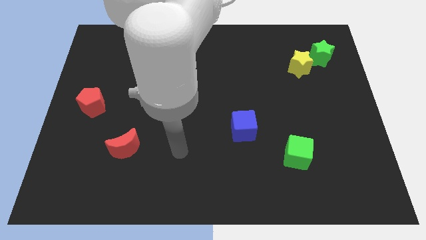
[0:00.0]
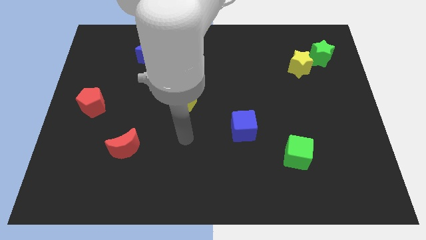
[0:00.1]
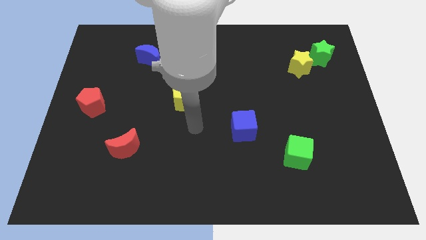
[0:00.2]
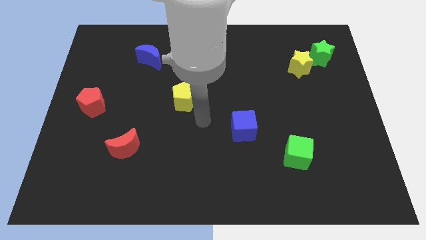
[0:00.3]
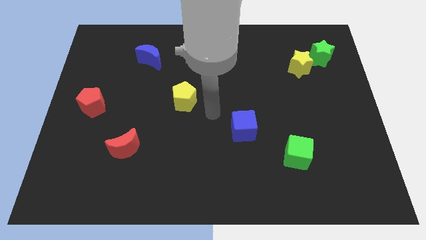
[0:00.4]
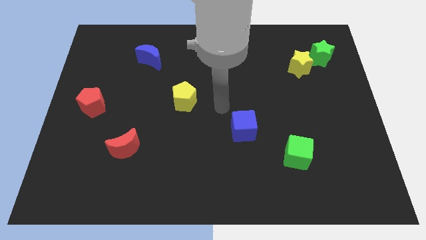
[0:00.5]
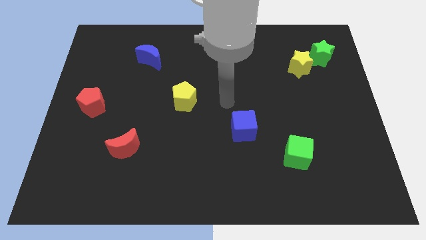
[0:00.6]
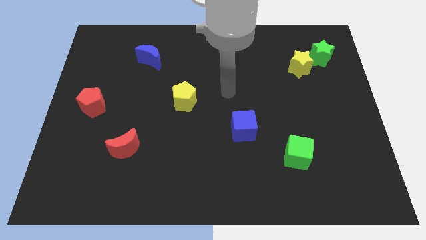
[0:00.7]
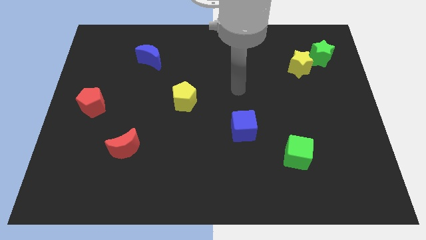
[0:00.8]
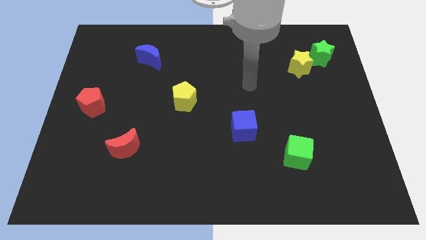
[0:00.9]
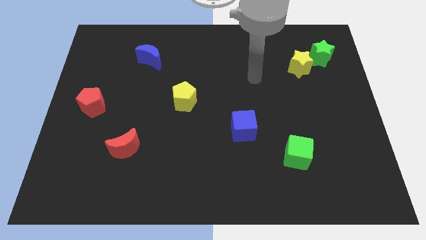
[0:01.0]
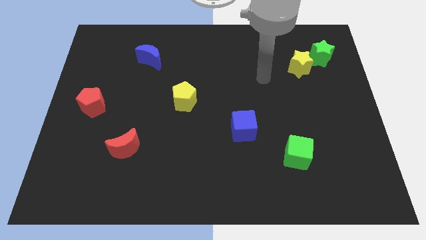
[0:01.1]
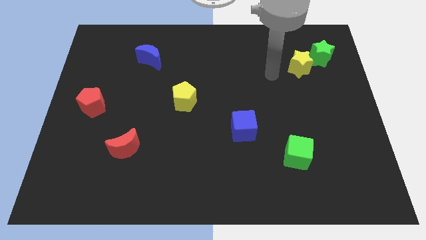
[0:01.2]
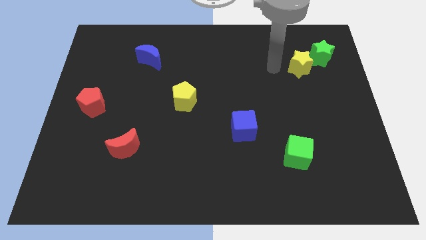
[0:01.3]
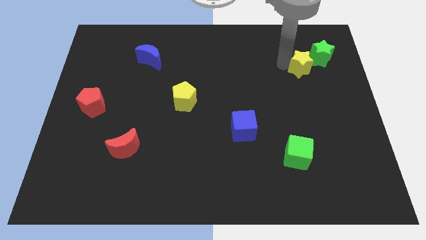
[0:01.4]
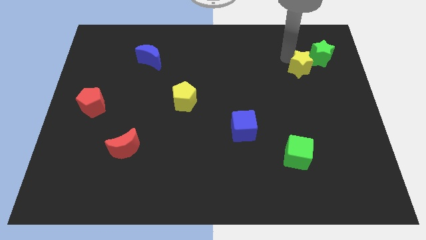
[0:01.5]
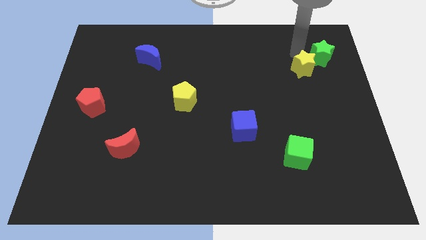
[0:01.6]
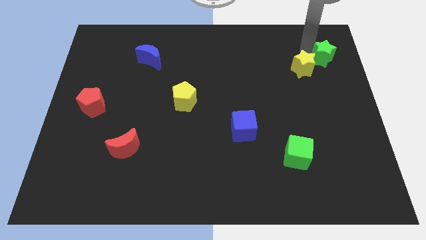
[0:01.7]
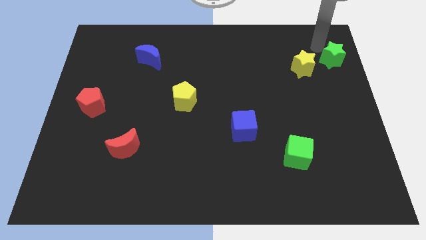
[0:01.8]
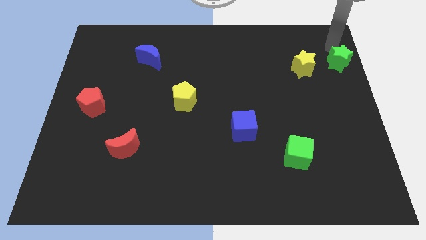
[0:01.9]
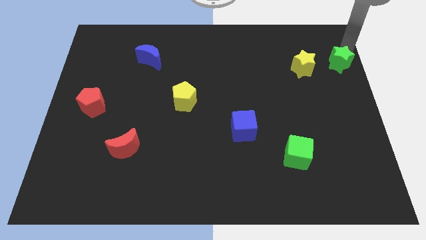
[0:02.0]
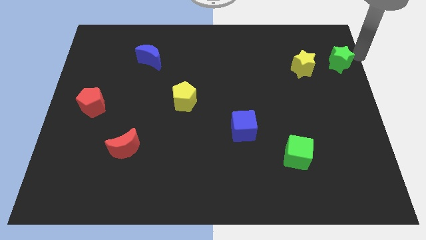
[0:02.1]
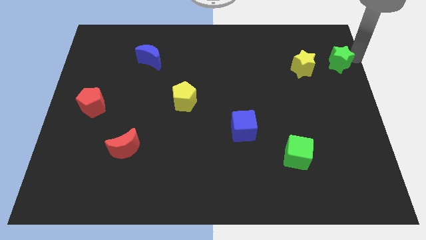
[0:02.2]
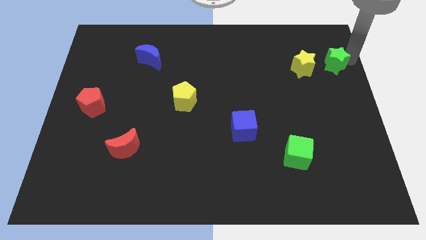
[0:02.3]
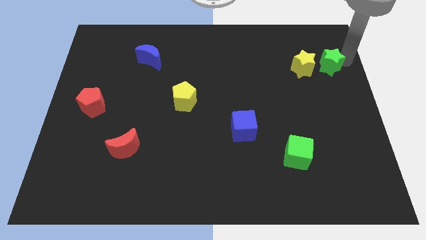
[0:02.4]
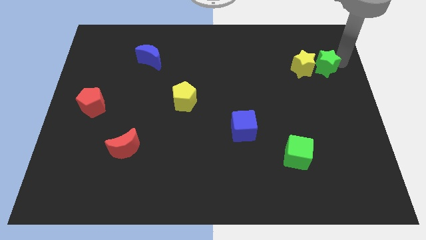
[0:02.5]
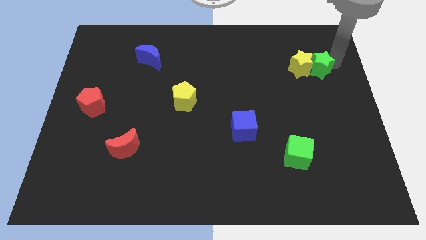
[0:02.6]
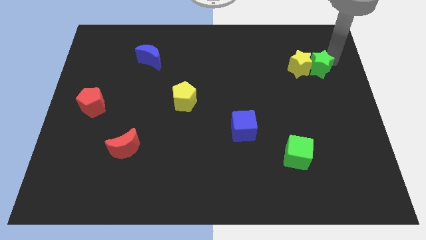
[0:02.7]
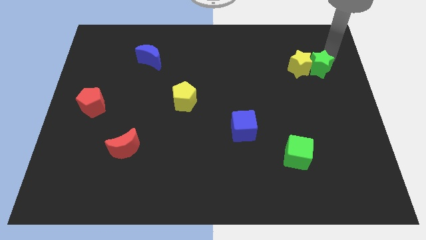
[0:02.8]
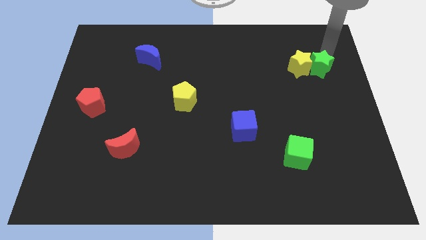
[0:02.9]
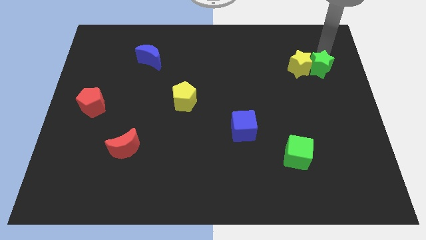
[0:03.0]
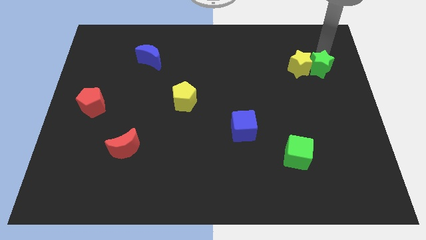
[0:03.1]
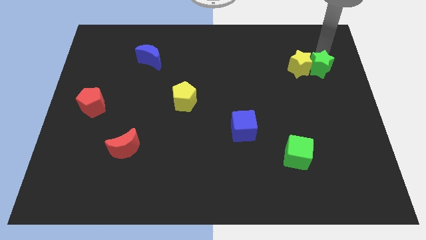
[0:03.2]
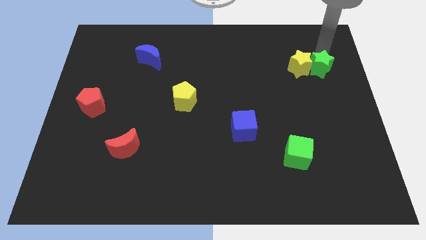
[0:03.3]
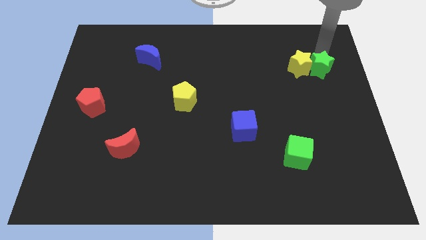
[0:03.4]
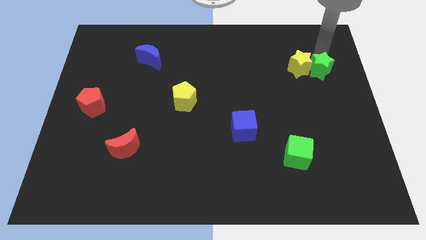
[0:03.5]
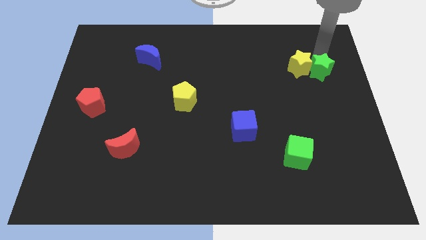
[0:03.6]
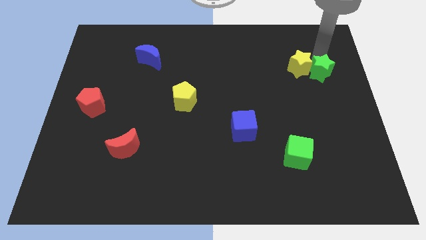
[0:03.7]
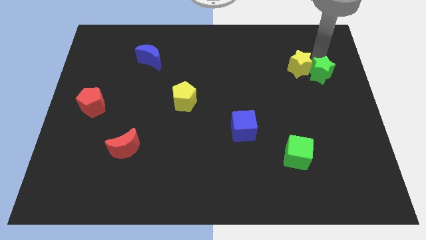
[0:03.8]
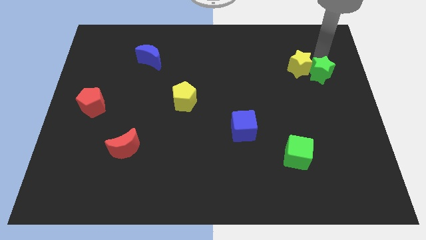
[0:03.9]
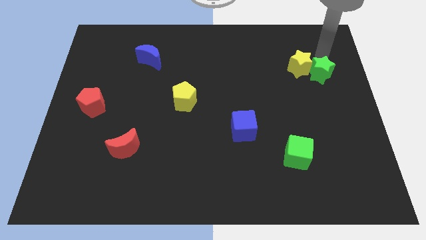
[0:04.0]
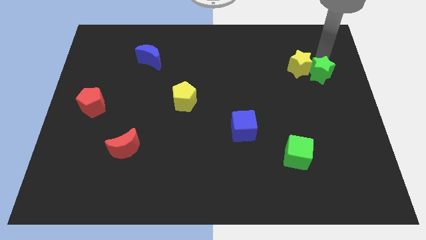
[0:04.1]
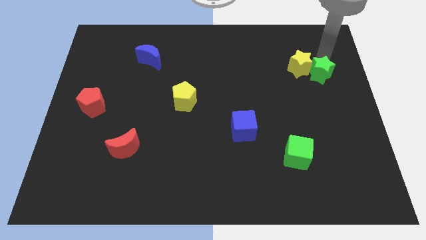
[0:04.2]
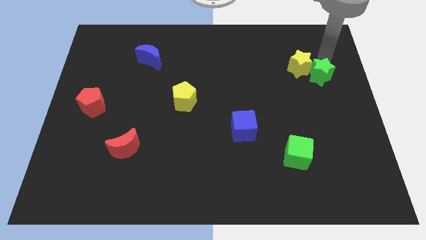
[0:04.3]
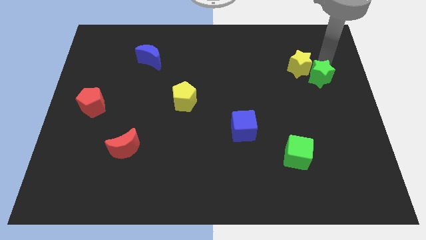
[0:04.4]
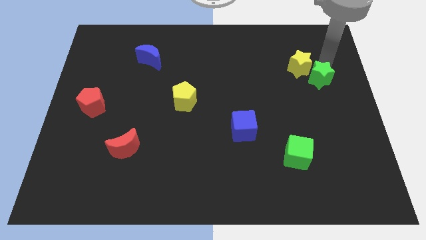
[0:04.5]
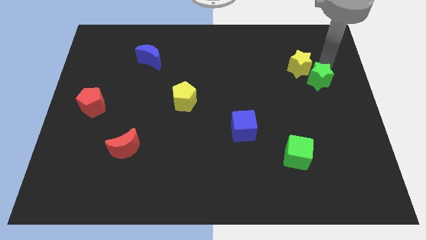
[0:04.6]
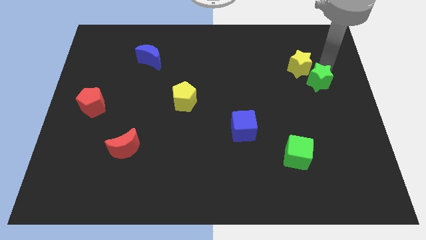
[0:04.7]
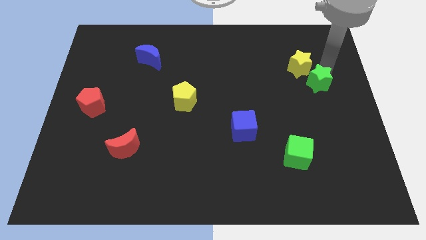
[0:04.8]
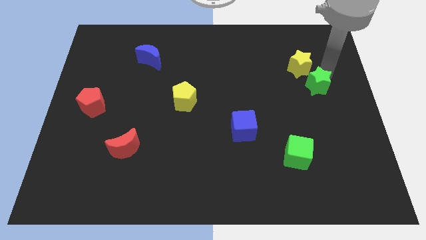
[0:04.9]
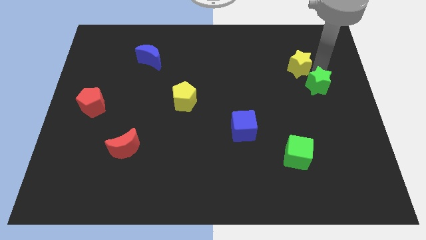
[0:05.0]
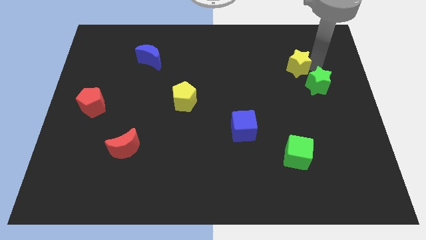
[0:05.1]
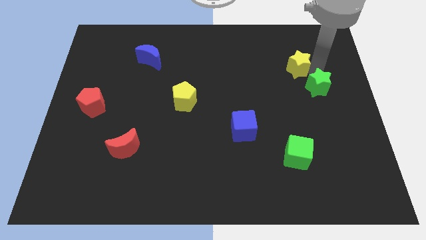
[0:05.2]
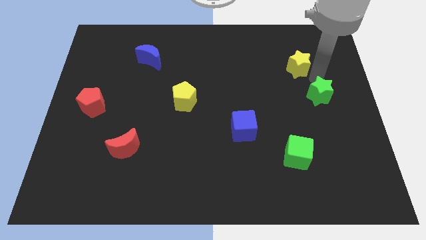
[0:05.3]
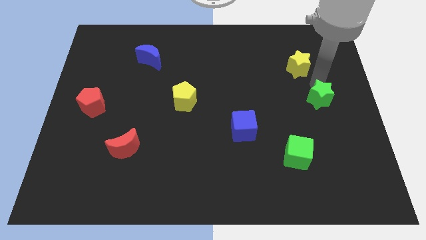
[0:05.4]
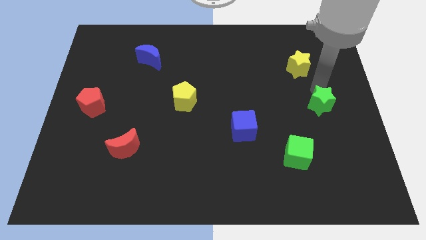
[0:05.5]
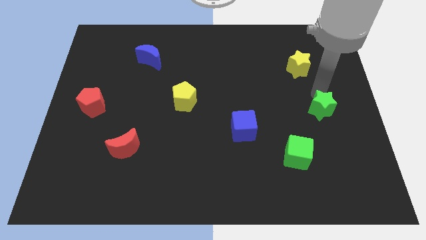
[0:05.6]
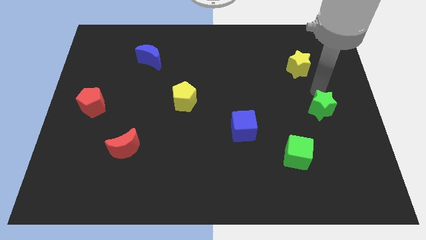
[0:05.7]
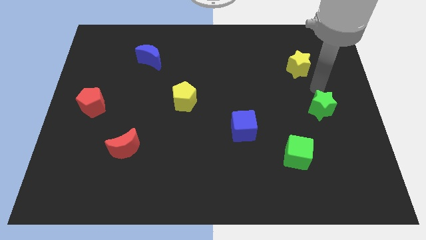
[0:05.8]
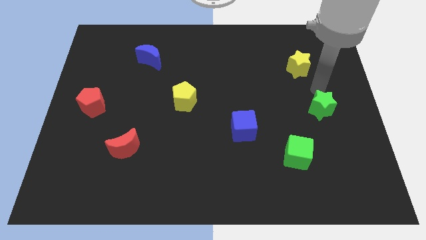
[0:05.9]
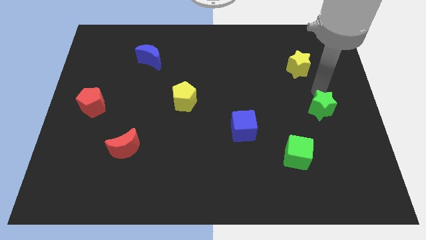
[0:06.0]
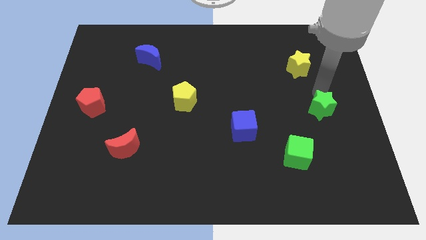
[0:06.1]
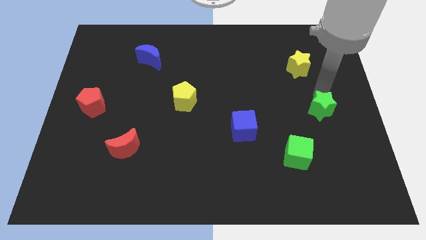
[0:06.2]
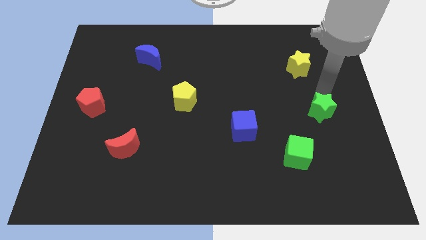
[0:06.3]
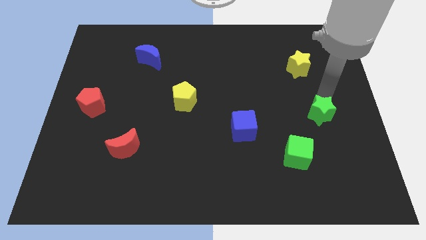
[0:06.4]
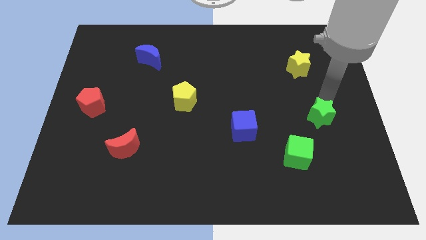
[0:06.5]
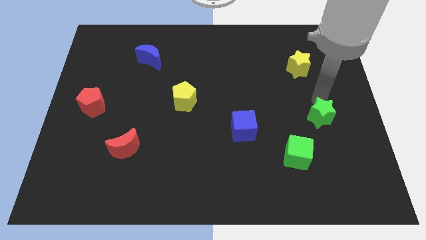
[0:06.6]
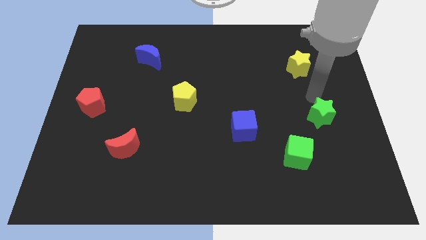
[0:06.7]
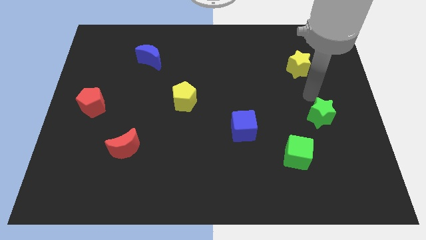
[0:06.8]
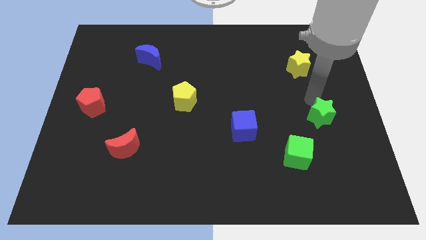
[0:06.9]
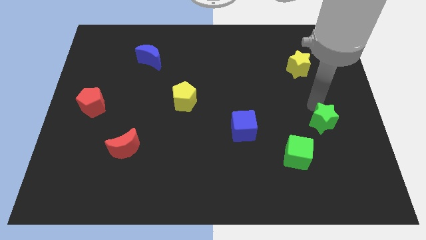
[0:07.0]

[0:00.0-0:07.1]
push the green star down

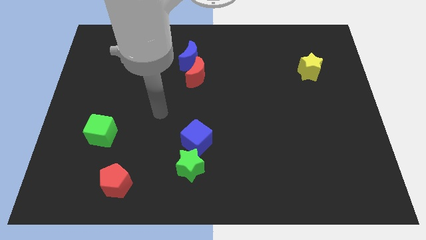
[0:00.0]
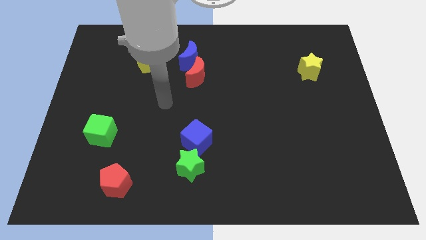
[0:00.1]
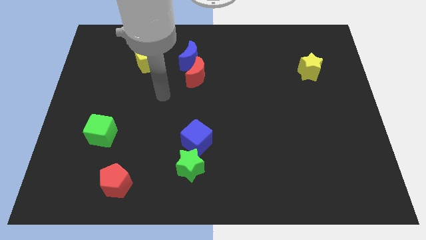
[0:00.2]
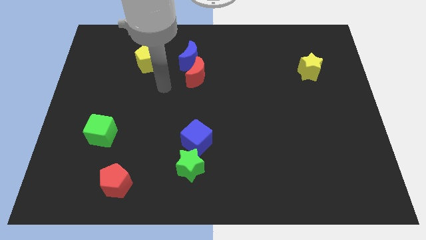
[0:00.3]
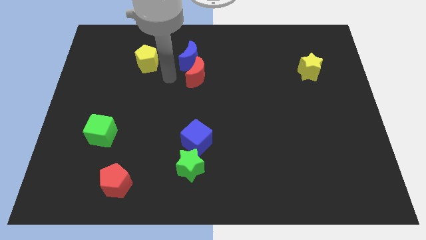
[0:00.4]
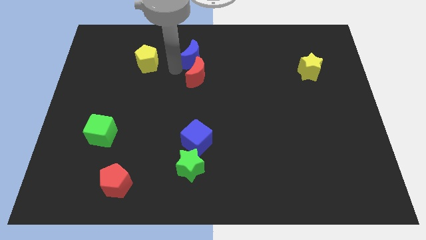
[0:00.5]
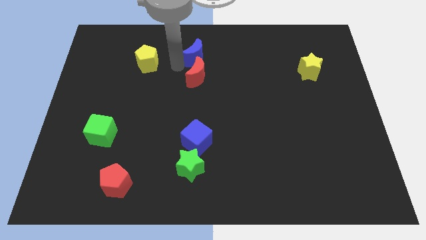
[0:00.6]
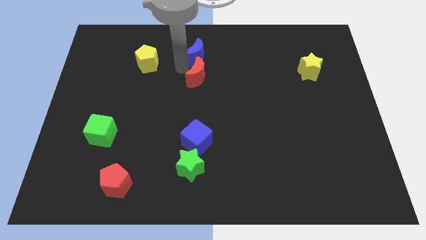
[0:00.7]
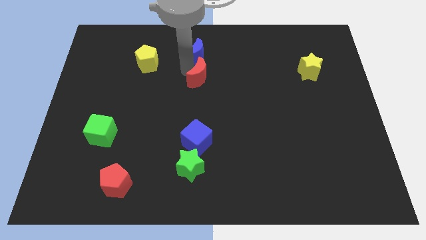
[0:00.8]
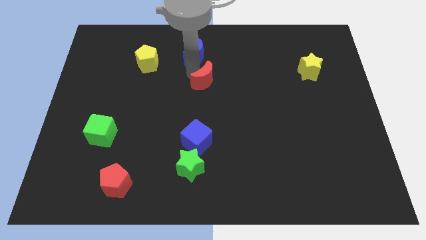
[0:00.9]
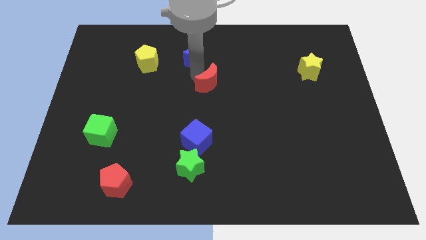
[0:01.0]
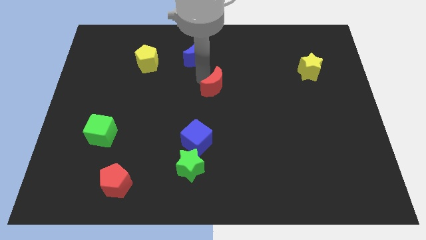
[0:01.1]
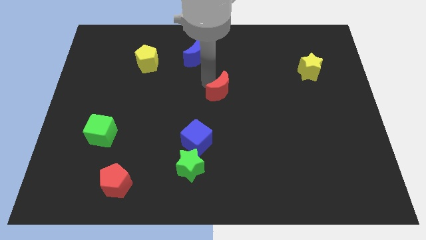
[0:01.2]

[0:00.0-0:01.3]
push the red moon slightly downwards and then to the right
